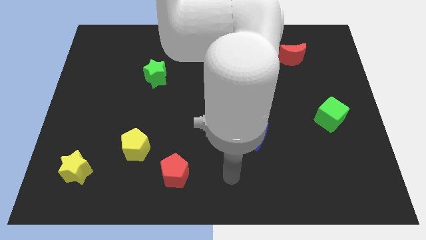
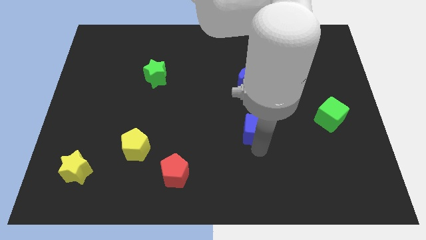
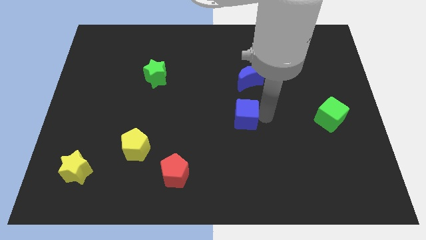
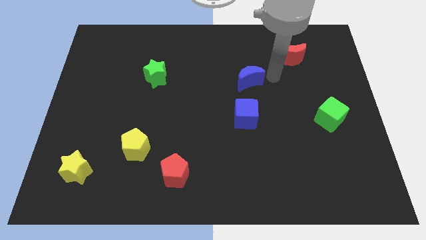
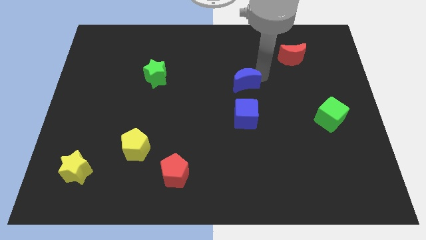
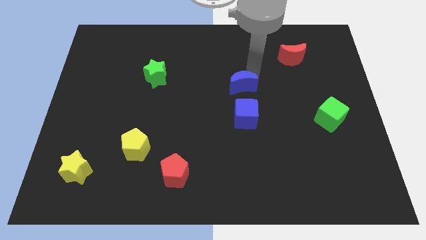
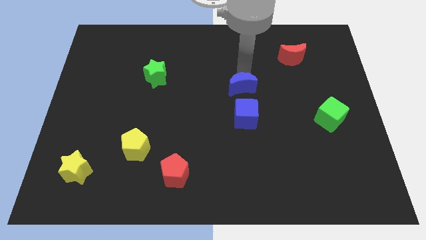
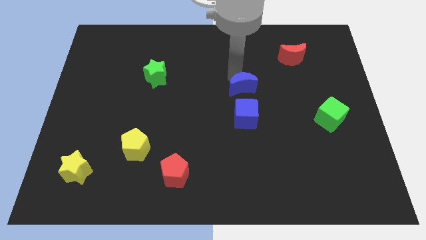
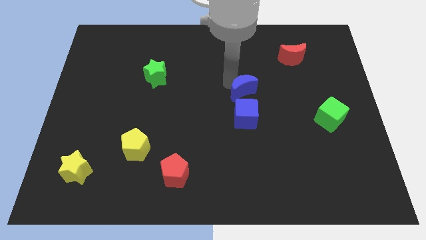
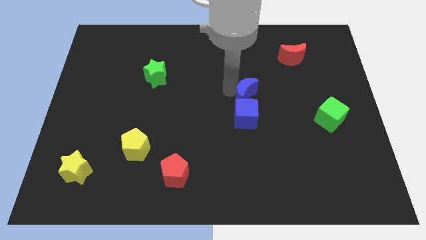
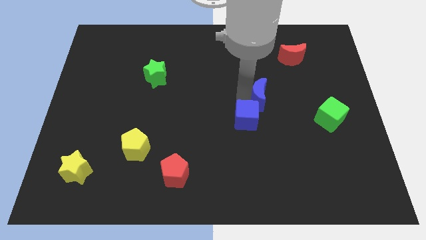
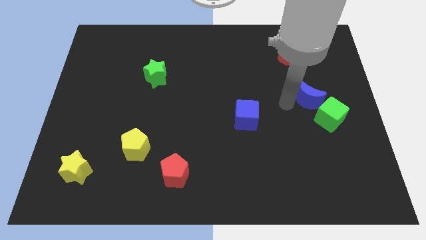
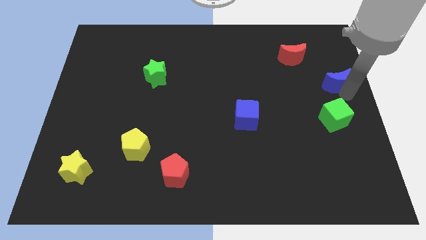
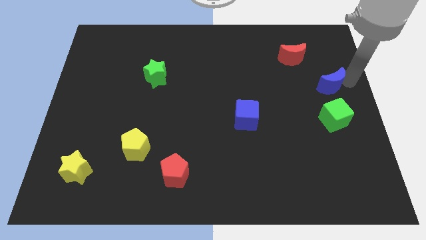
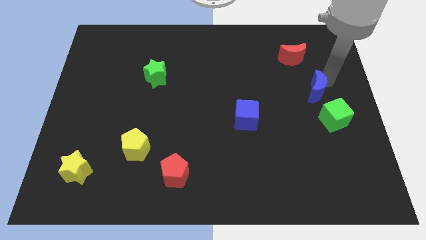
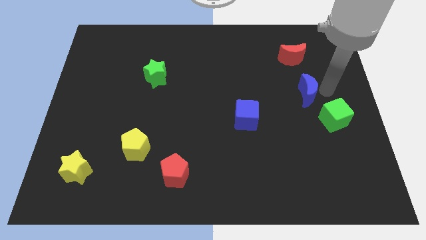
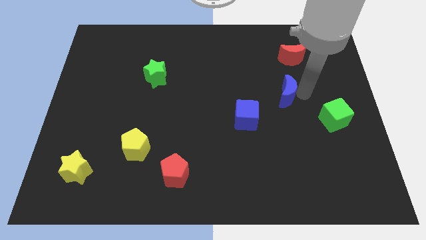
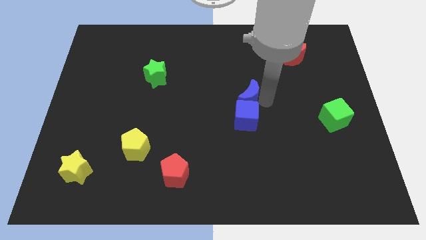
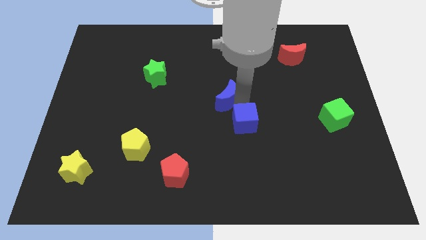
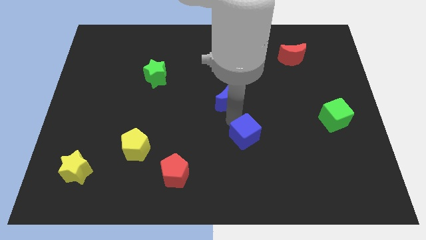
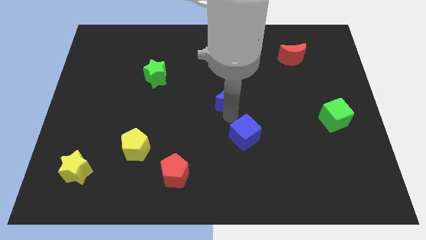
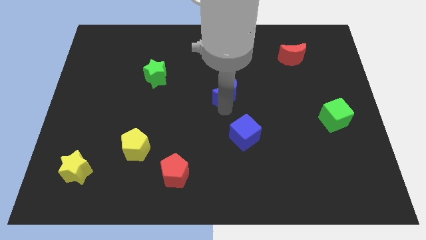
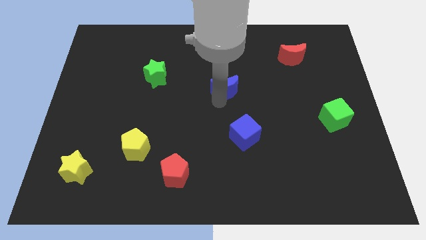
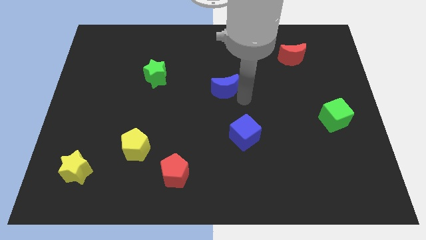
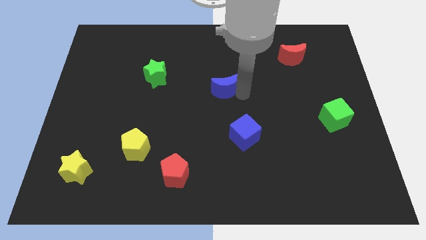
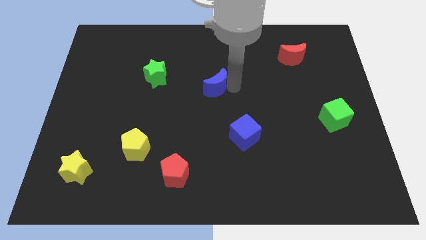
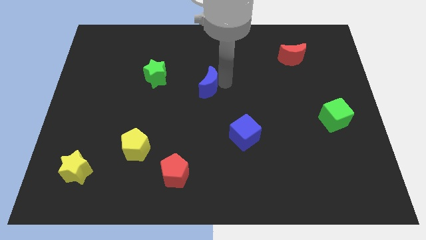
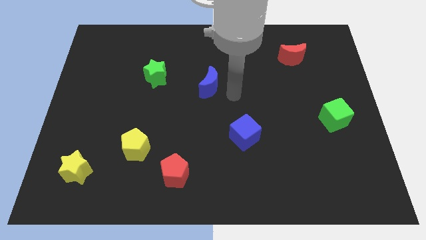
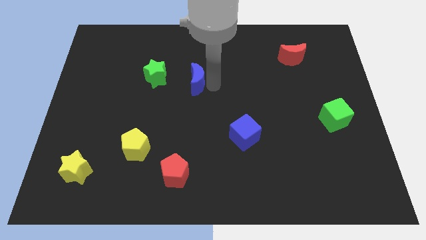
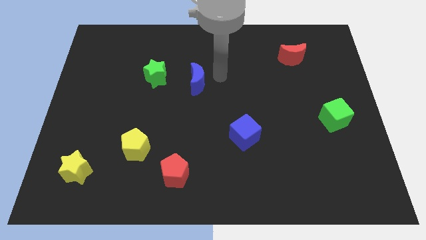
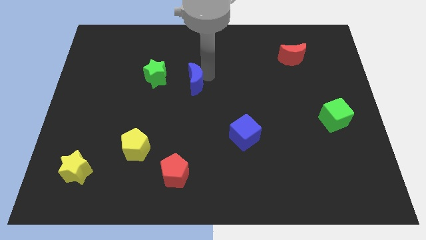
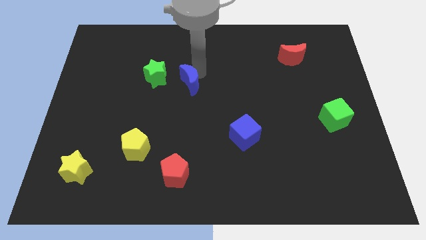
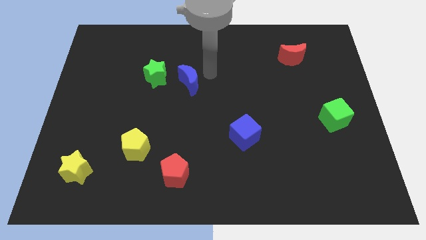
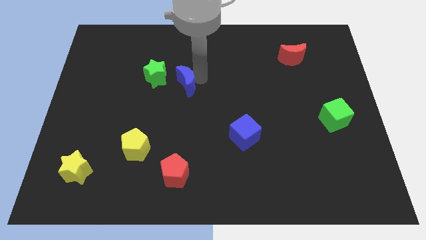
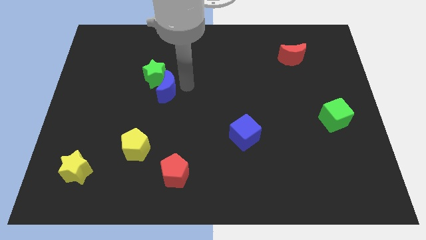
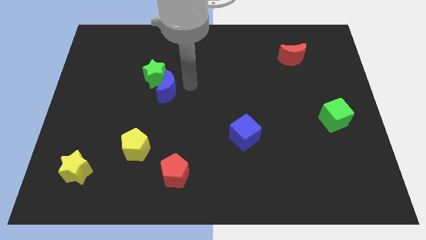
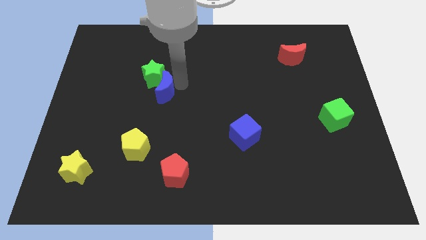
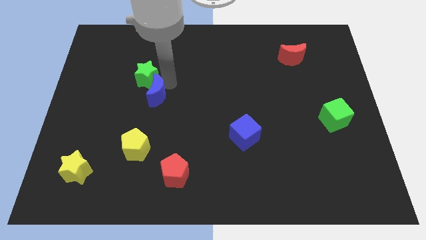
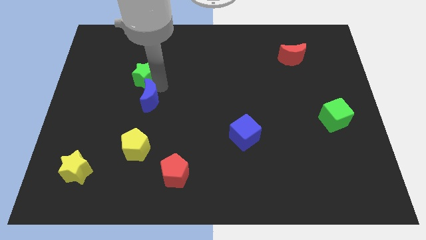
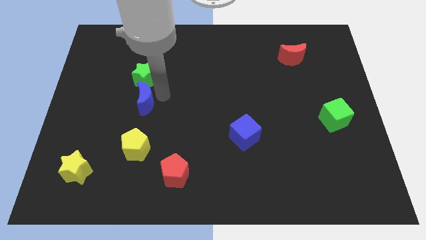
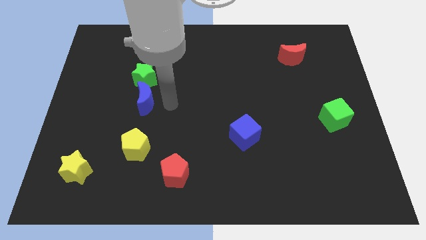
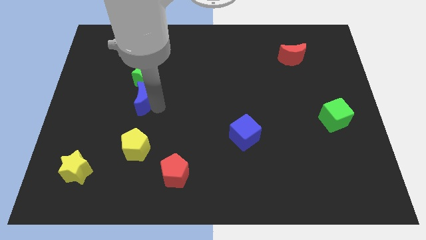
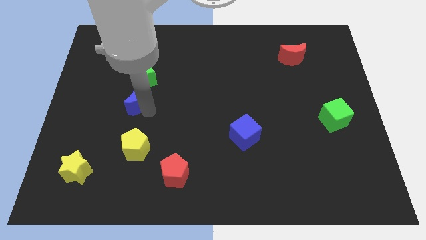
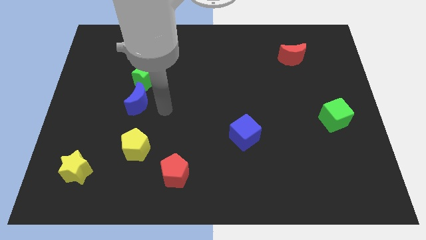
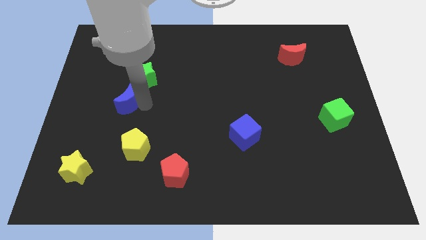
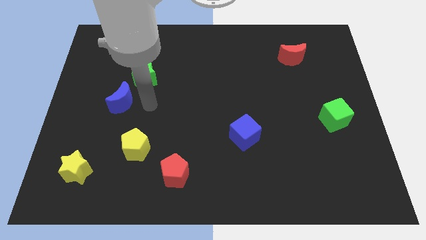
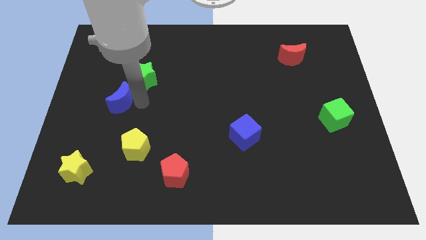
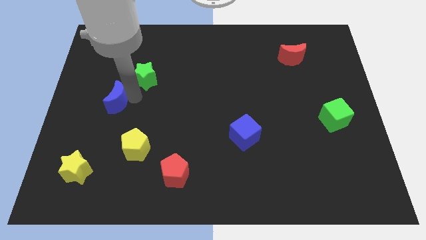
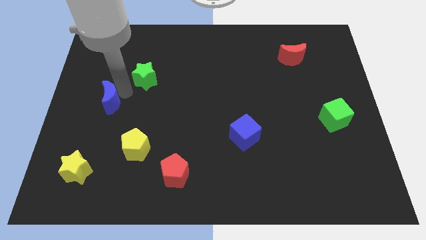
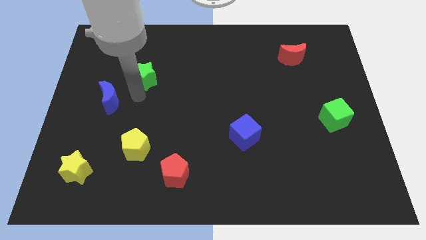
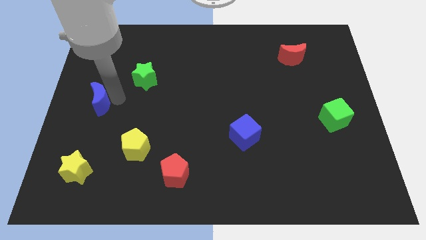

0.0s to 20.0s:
push the blue moon to the left side

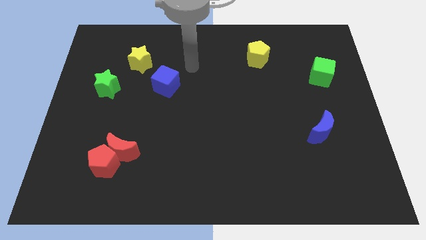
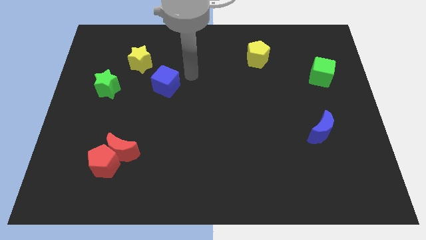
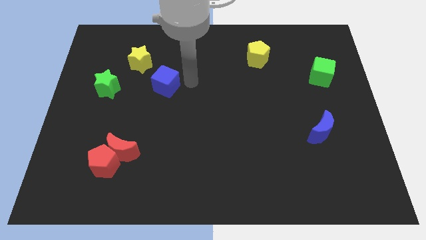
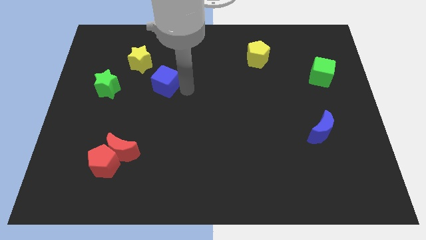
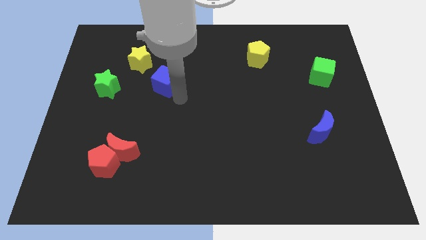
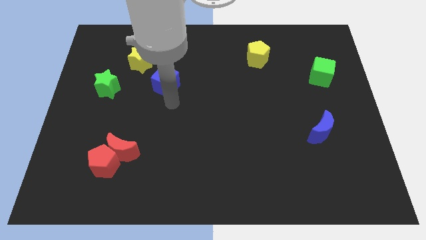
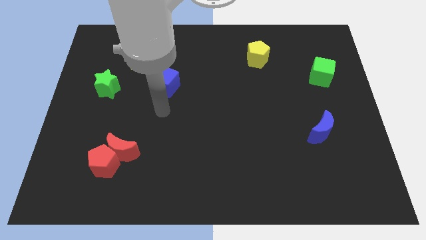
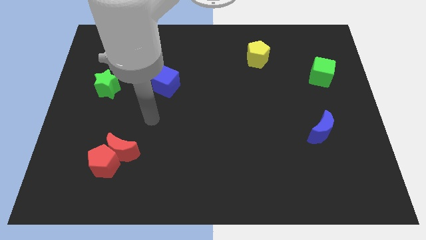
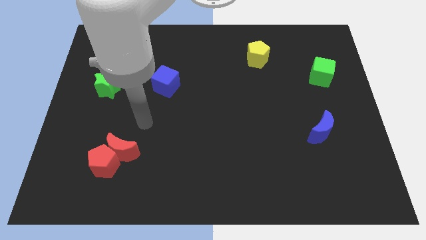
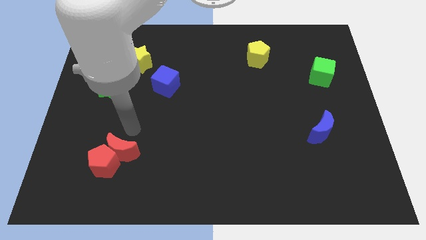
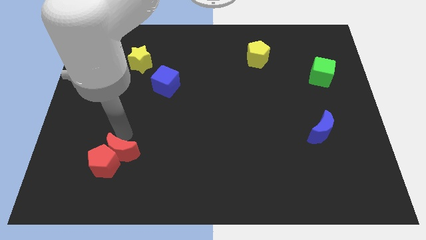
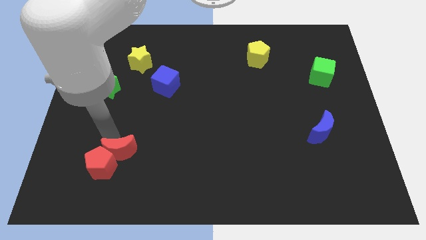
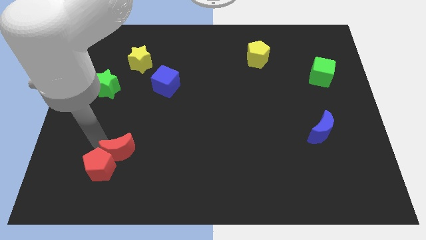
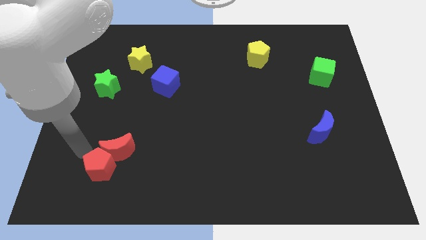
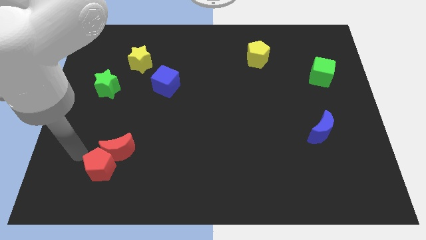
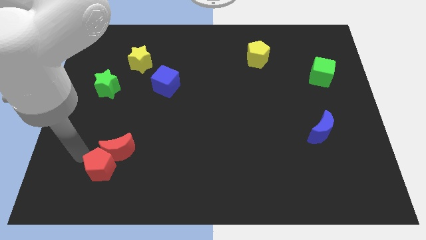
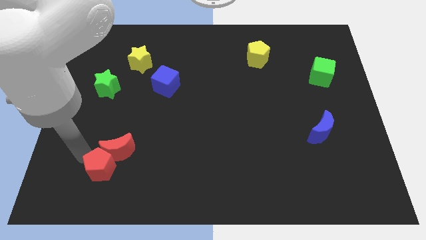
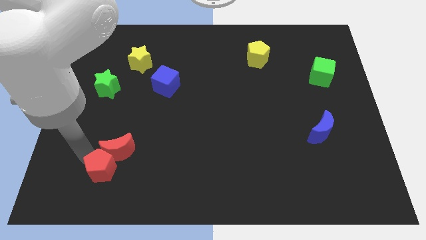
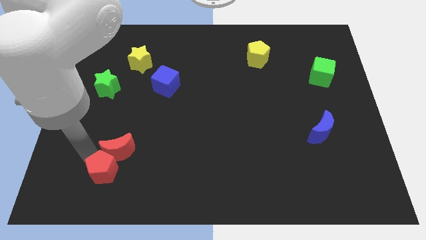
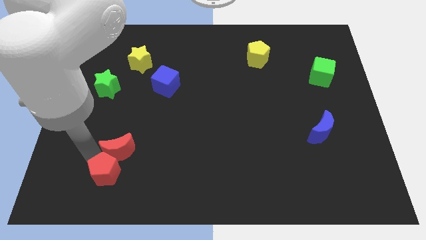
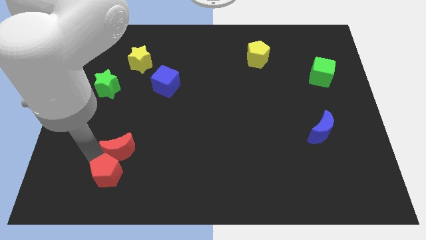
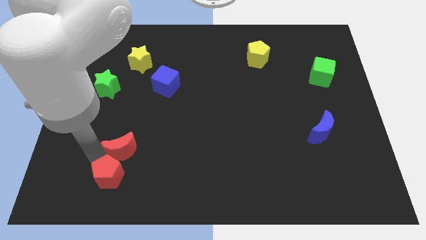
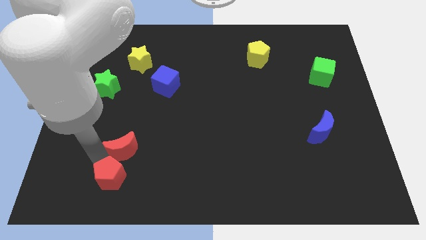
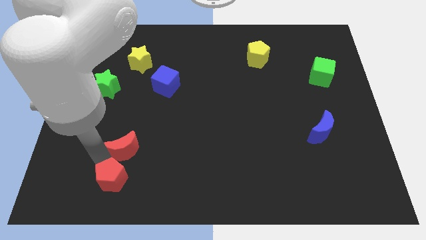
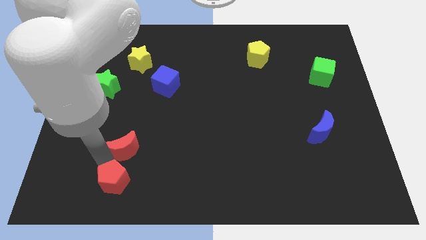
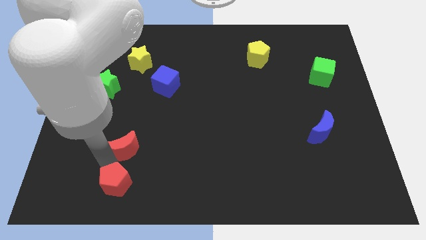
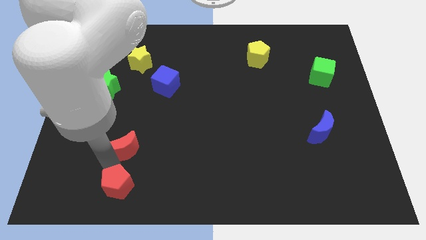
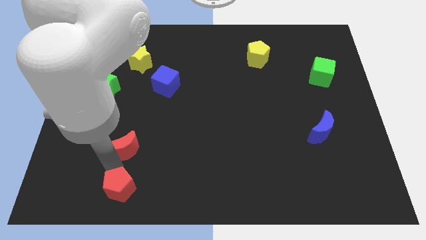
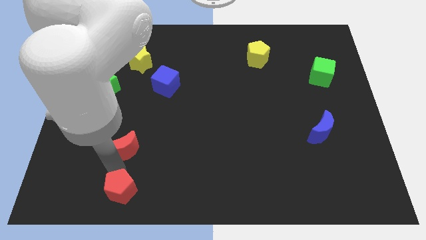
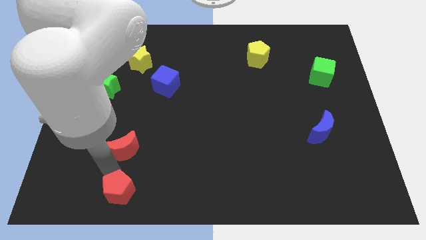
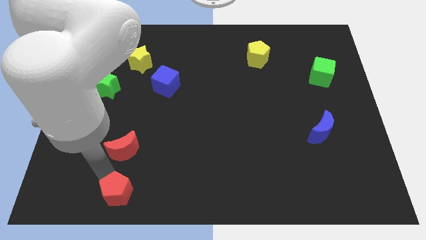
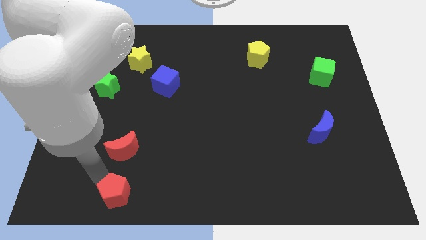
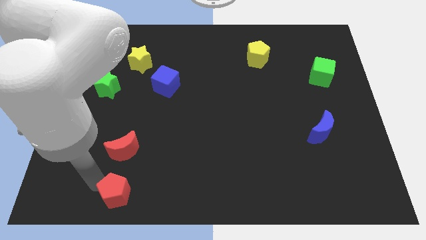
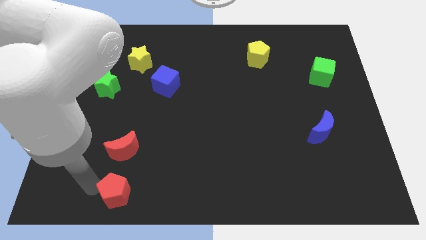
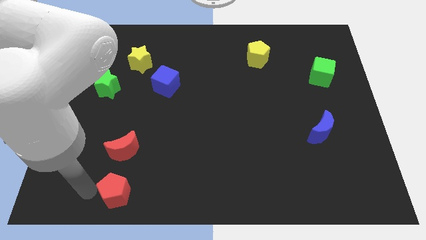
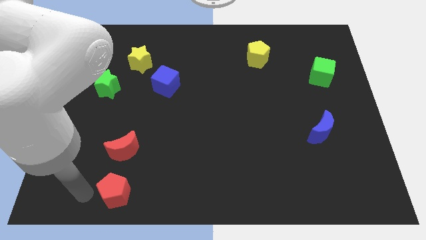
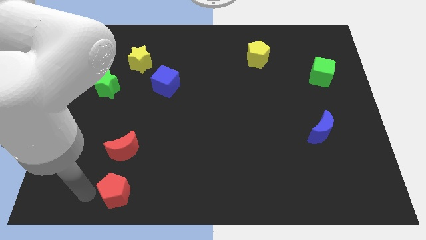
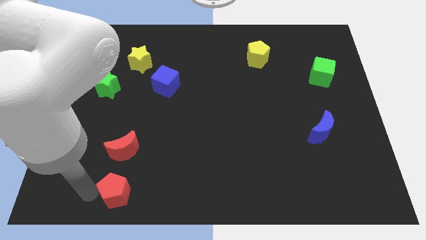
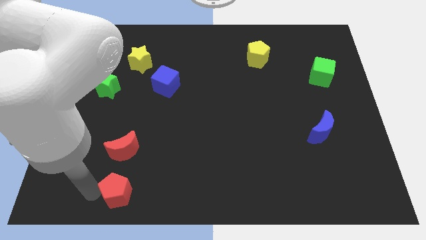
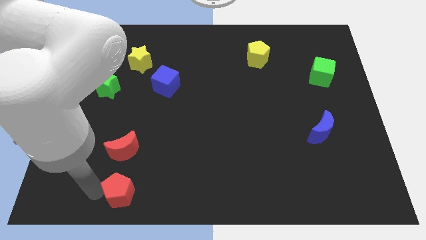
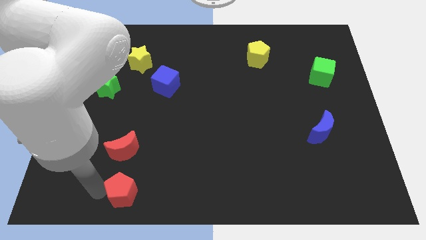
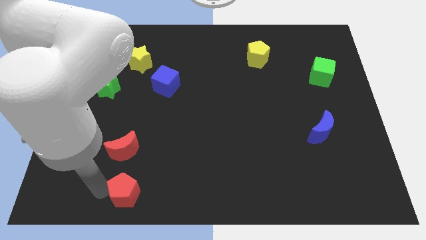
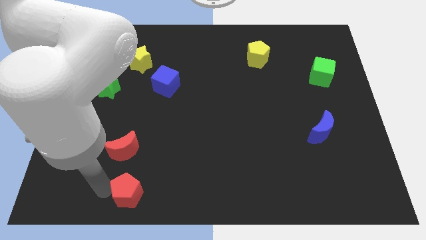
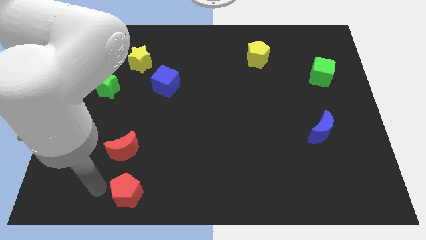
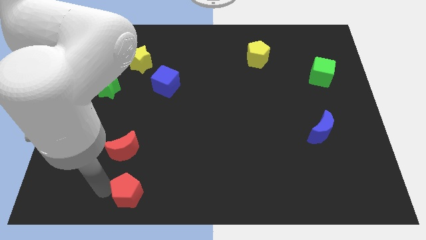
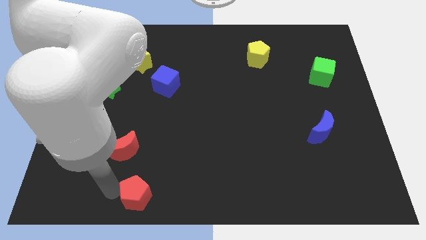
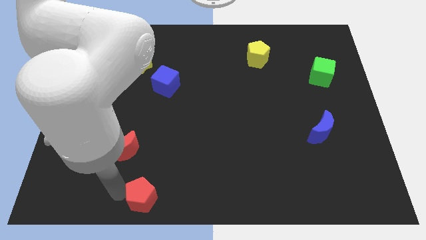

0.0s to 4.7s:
push the red pentagon to the bottom side
